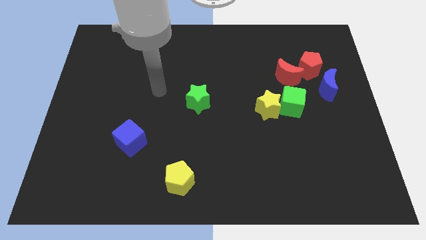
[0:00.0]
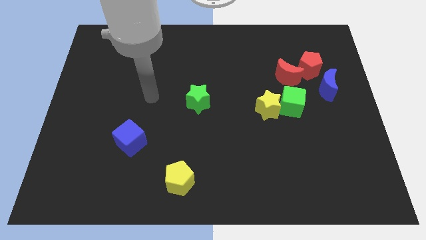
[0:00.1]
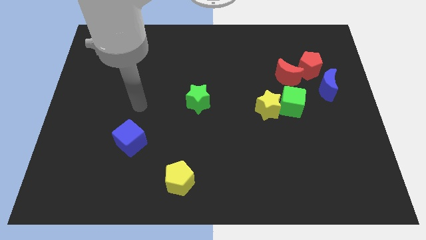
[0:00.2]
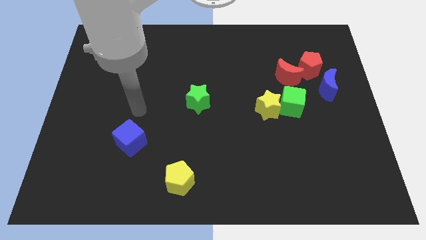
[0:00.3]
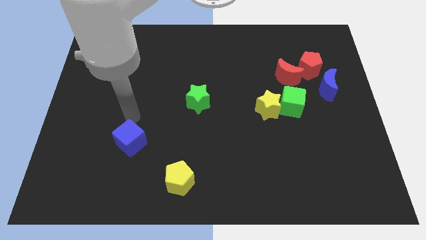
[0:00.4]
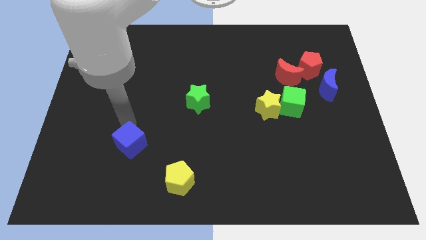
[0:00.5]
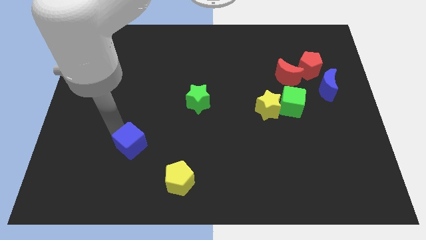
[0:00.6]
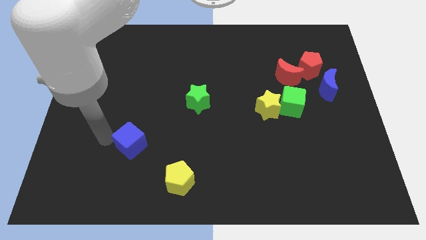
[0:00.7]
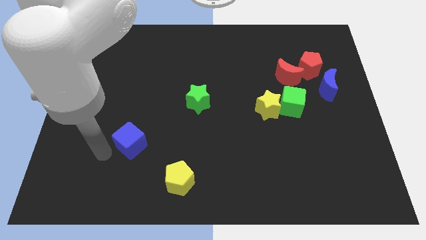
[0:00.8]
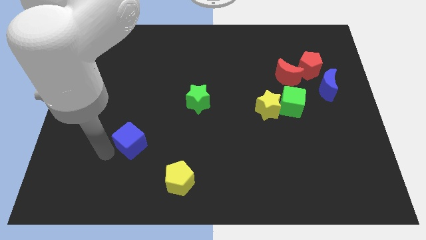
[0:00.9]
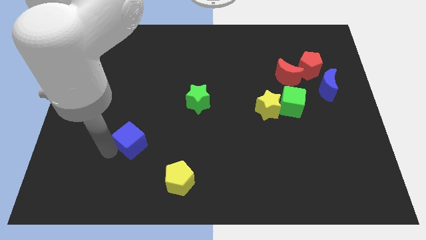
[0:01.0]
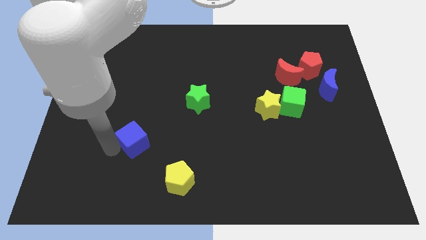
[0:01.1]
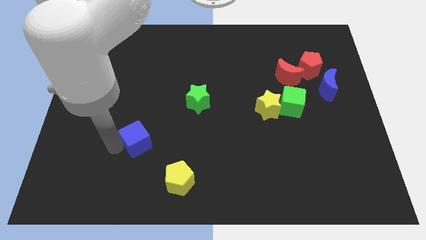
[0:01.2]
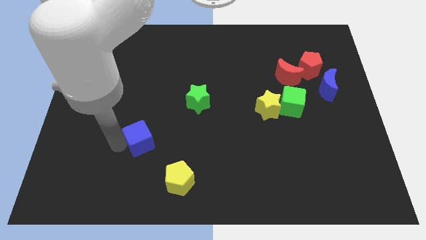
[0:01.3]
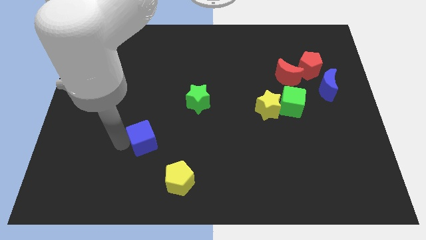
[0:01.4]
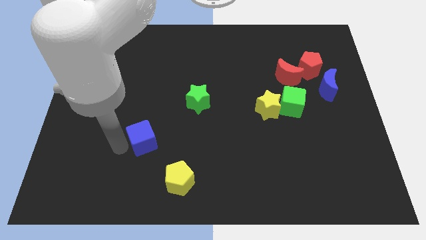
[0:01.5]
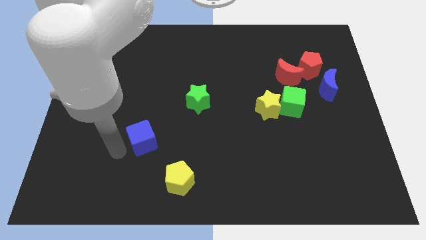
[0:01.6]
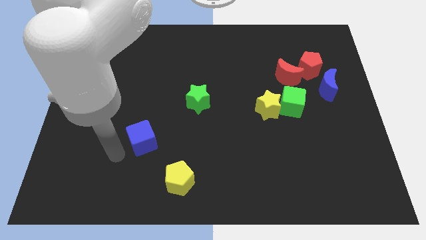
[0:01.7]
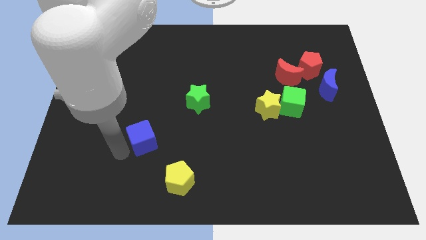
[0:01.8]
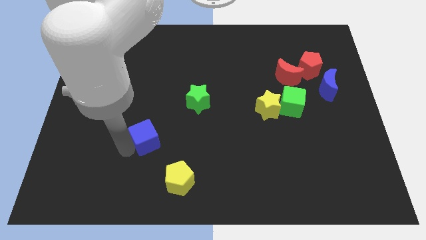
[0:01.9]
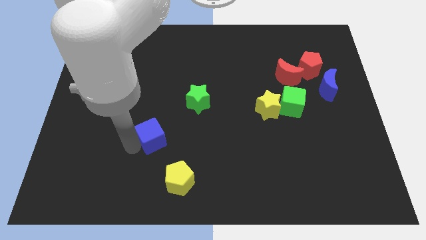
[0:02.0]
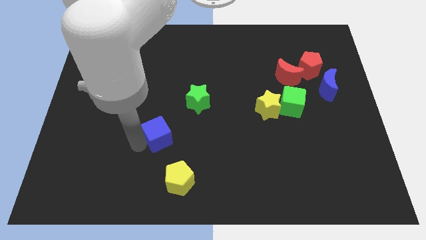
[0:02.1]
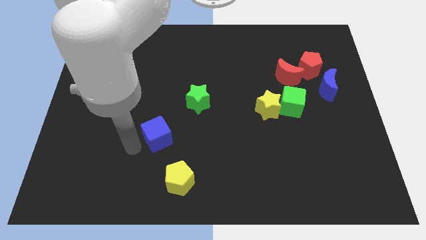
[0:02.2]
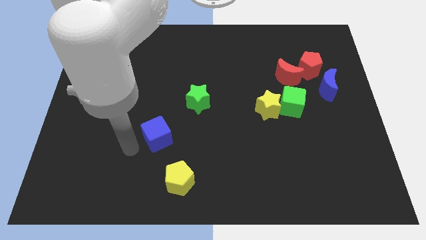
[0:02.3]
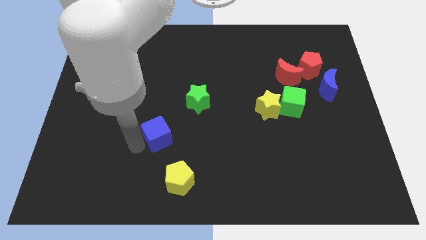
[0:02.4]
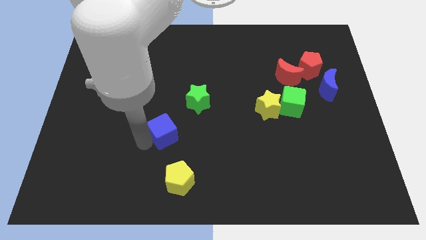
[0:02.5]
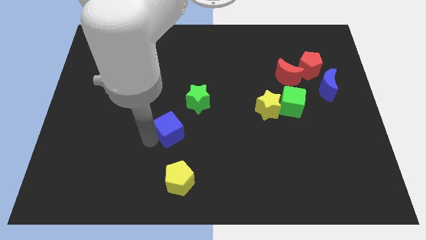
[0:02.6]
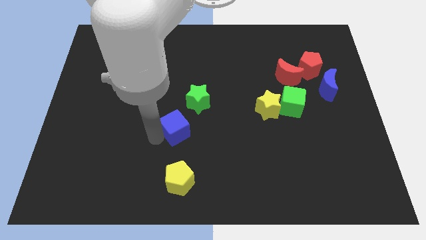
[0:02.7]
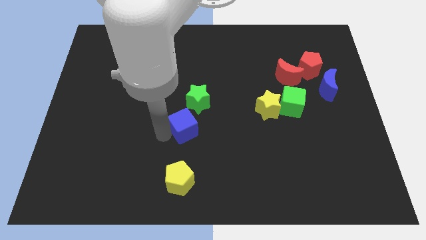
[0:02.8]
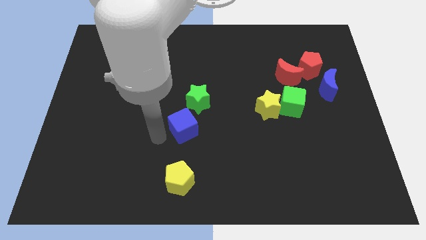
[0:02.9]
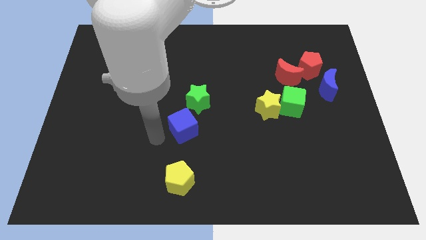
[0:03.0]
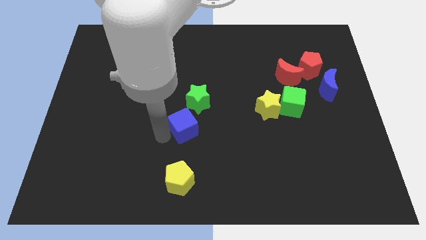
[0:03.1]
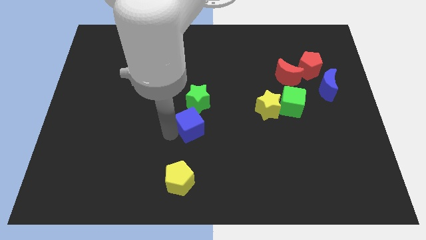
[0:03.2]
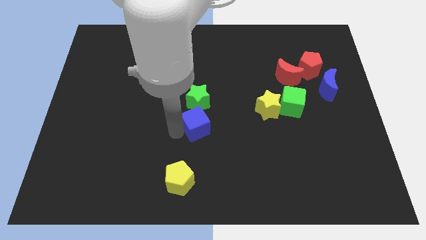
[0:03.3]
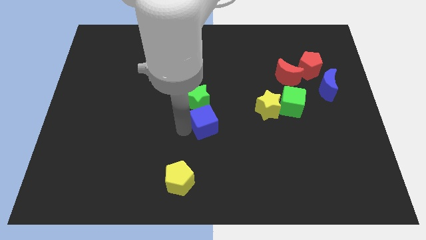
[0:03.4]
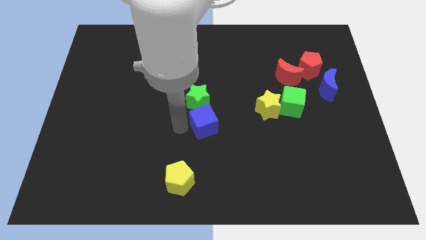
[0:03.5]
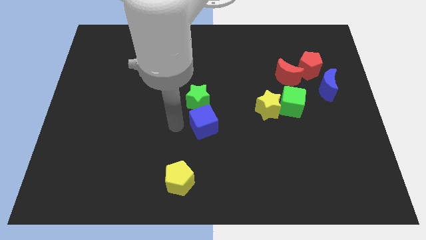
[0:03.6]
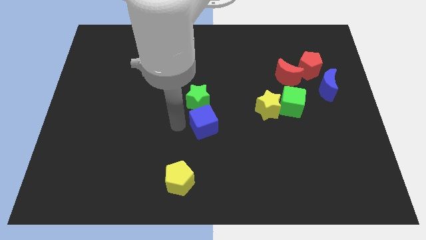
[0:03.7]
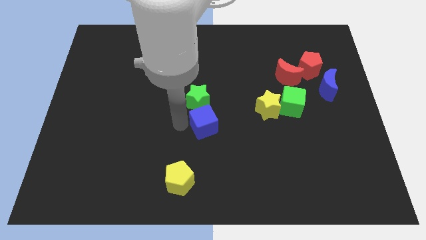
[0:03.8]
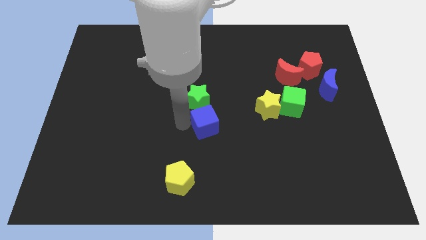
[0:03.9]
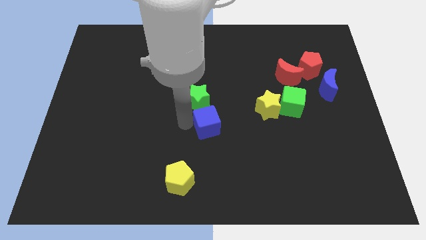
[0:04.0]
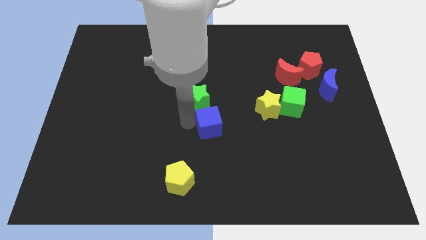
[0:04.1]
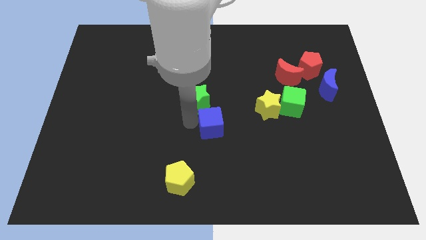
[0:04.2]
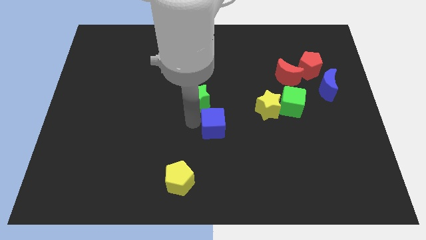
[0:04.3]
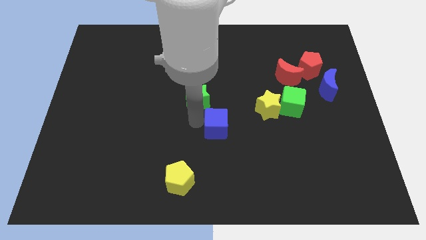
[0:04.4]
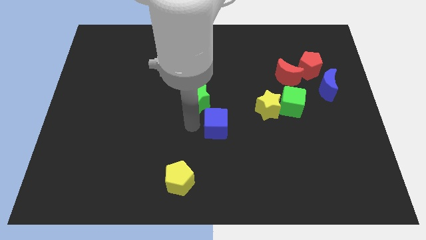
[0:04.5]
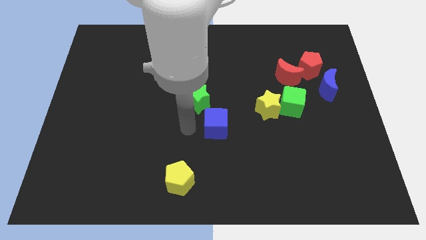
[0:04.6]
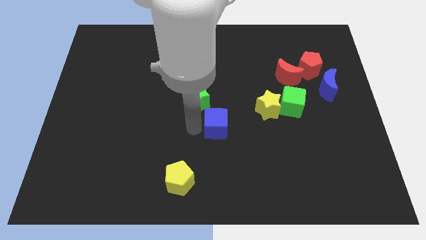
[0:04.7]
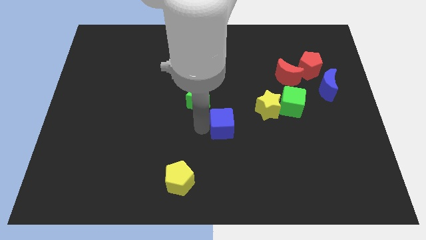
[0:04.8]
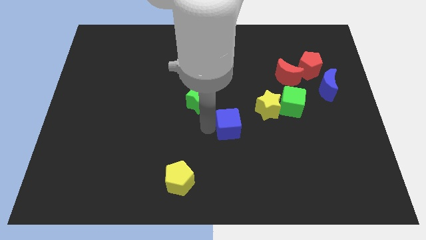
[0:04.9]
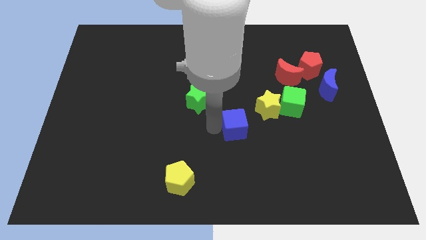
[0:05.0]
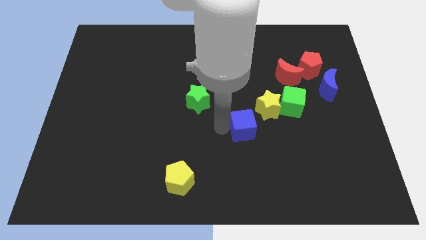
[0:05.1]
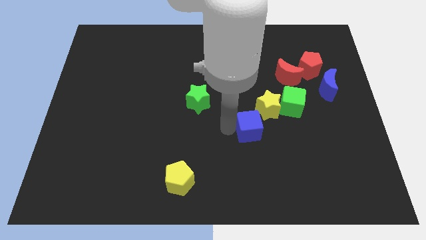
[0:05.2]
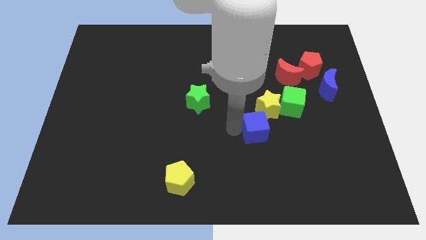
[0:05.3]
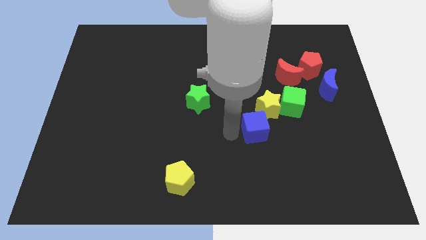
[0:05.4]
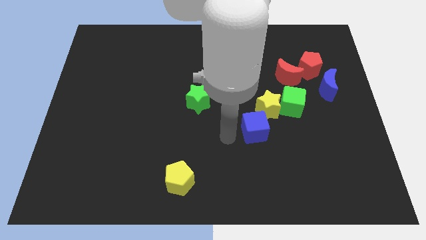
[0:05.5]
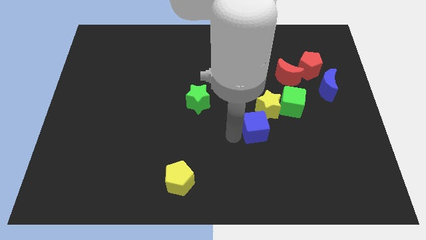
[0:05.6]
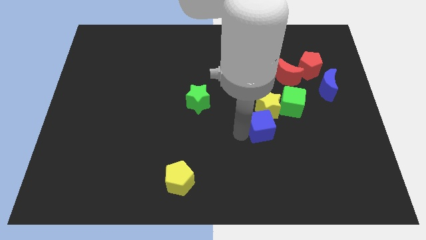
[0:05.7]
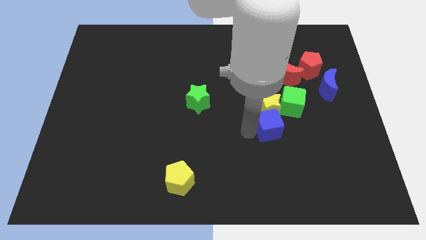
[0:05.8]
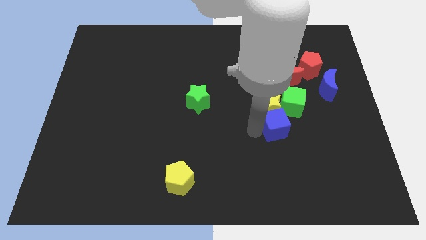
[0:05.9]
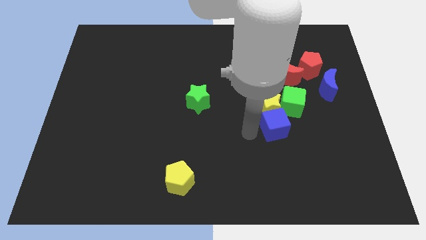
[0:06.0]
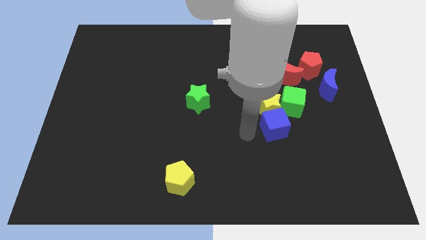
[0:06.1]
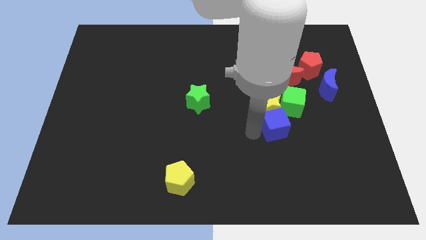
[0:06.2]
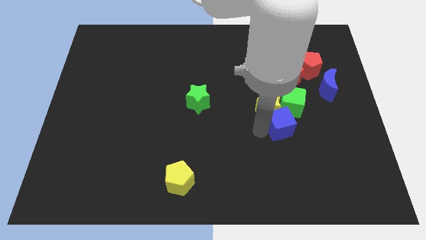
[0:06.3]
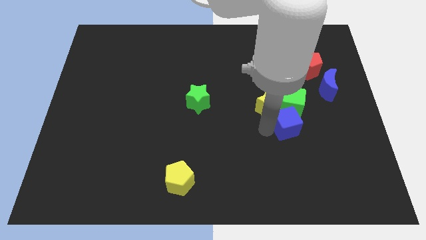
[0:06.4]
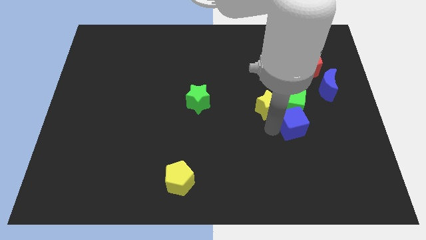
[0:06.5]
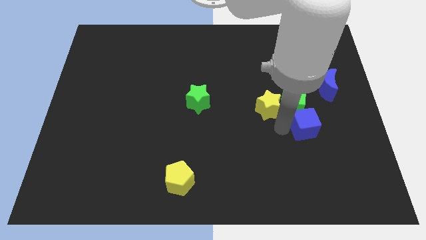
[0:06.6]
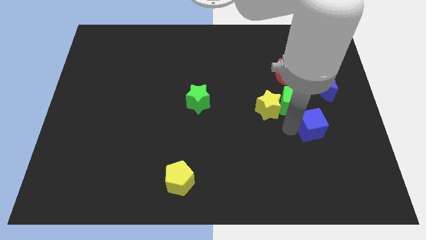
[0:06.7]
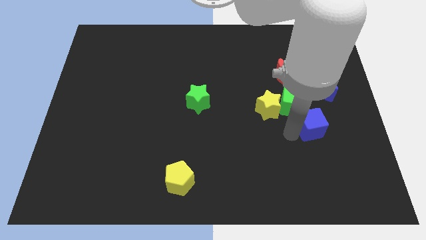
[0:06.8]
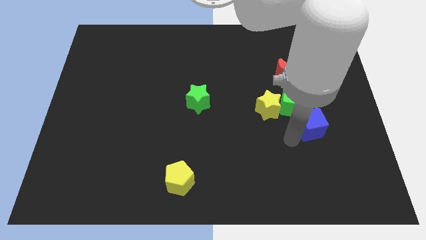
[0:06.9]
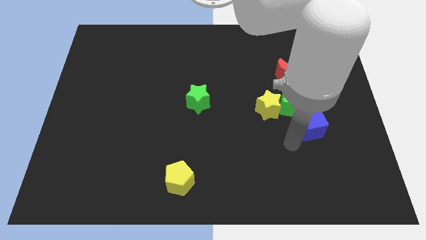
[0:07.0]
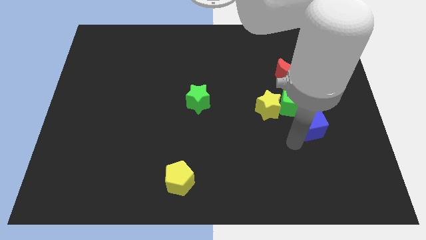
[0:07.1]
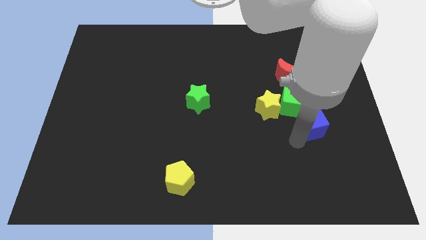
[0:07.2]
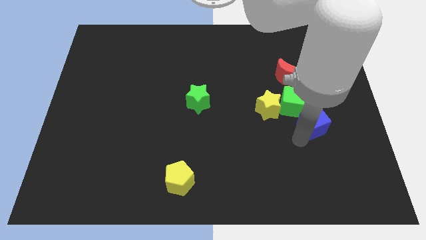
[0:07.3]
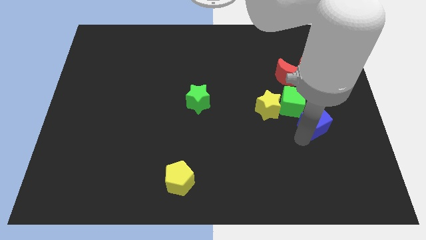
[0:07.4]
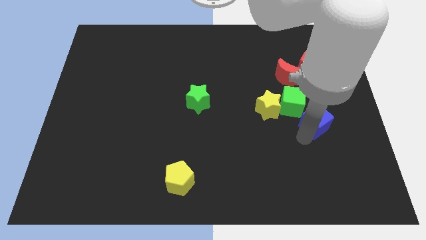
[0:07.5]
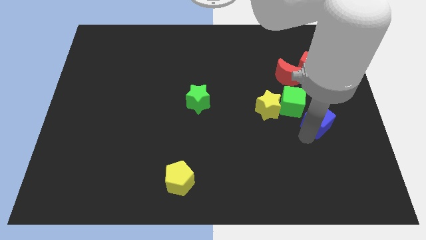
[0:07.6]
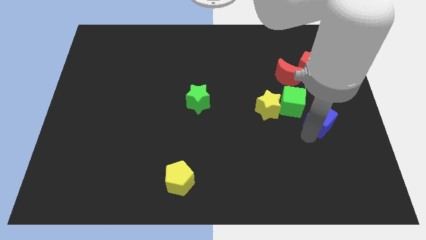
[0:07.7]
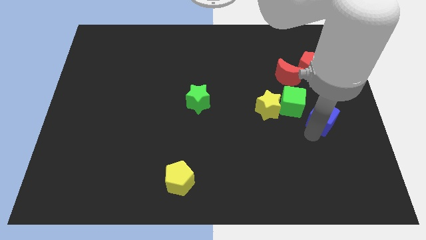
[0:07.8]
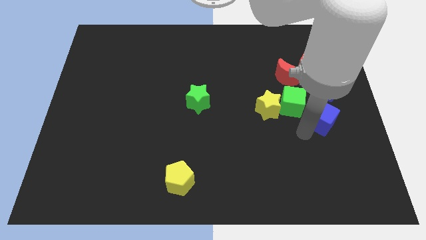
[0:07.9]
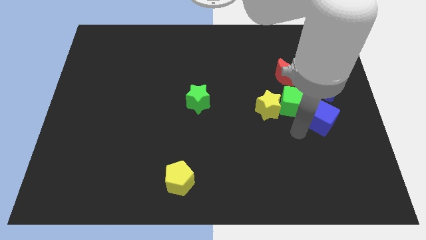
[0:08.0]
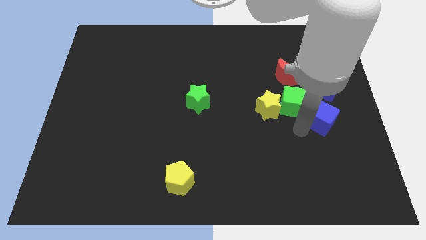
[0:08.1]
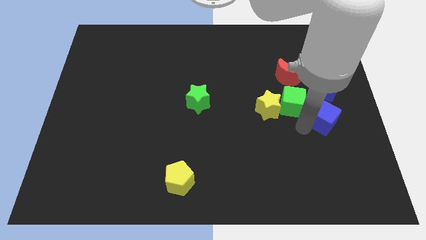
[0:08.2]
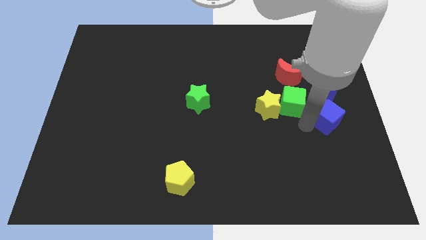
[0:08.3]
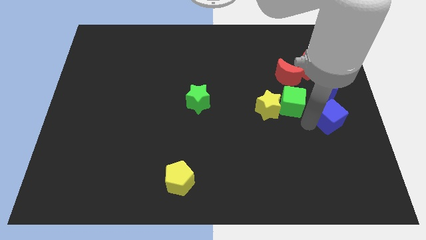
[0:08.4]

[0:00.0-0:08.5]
push the blue cube to the right side
